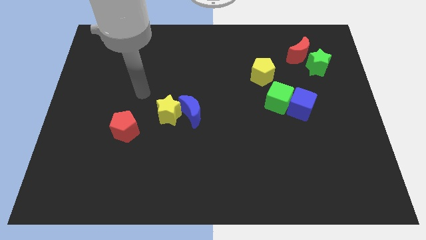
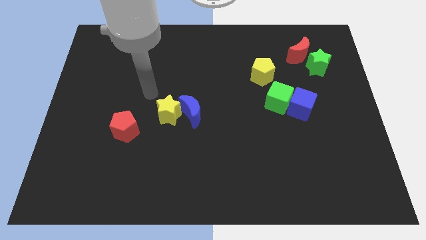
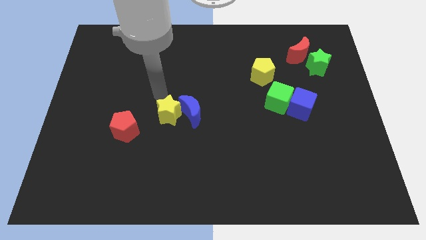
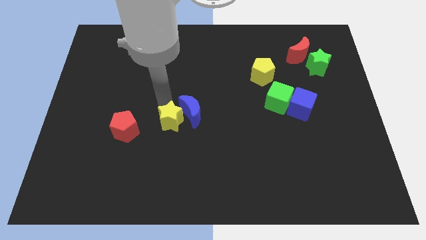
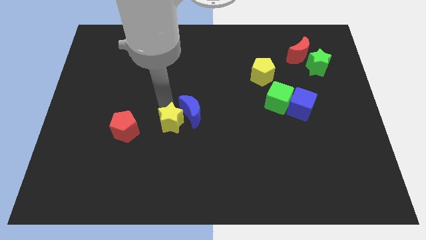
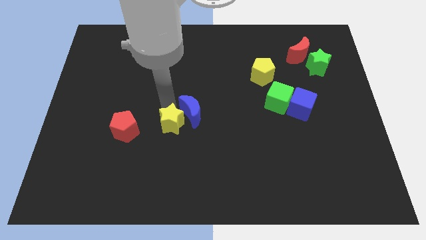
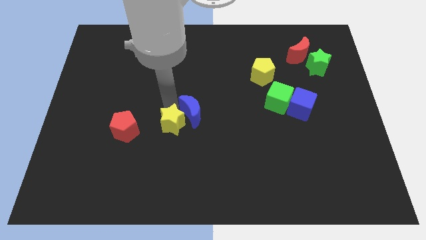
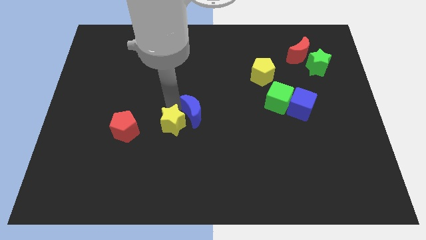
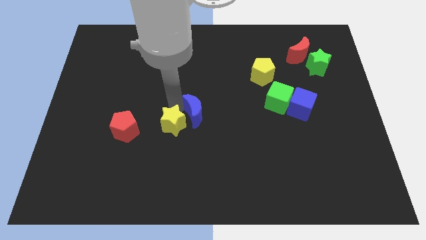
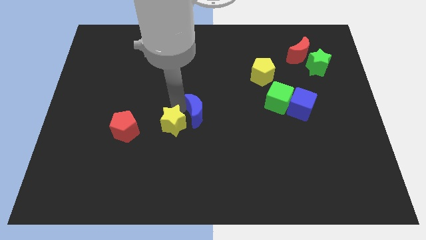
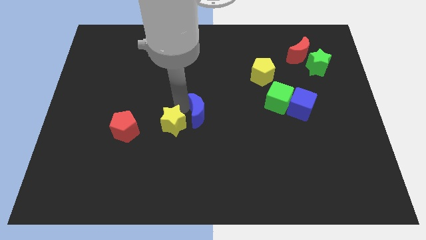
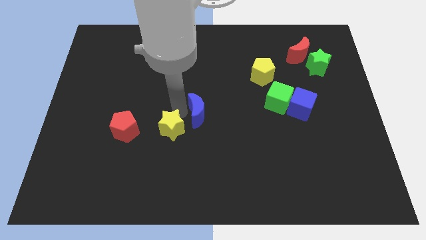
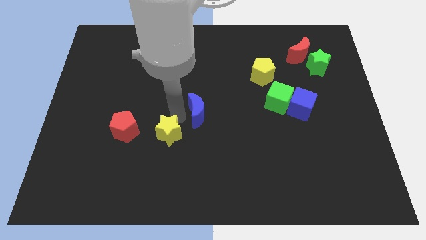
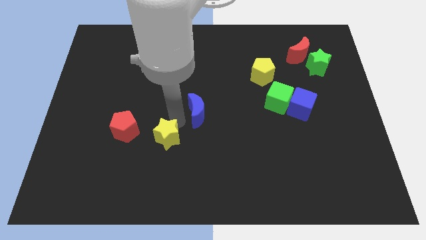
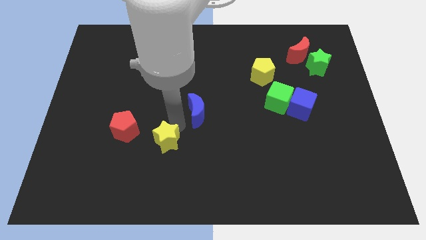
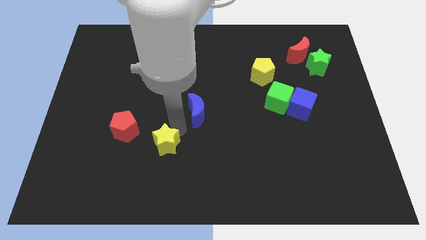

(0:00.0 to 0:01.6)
separate the blue moon from the yellow star

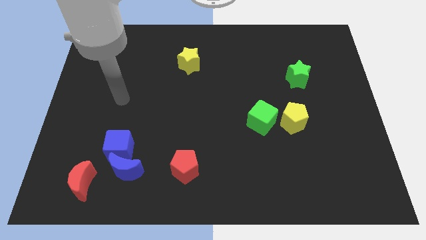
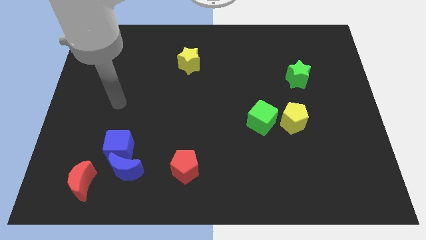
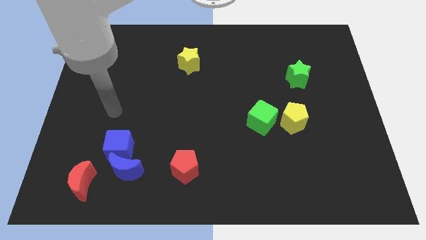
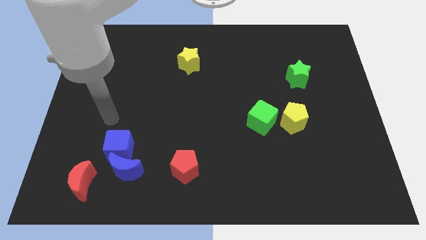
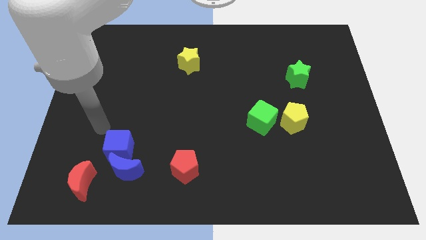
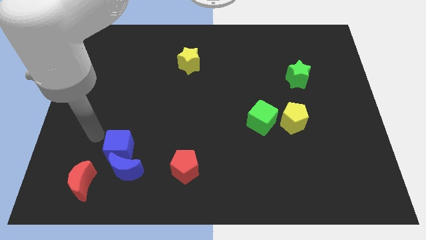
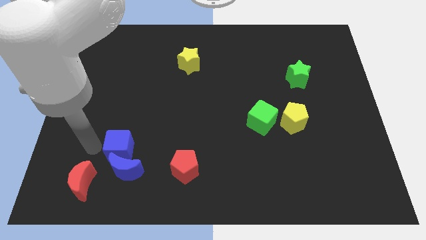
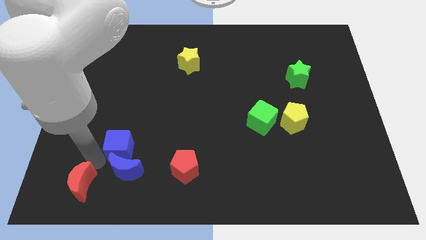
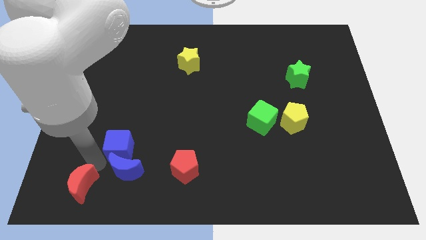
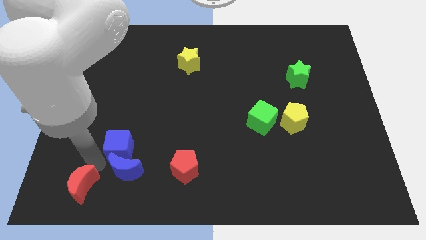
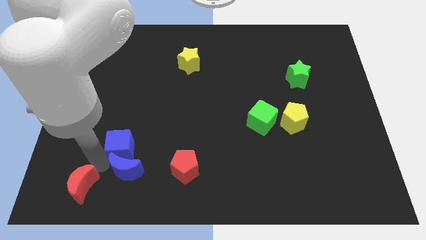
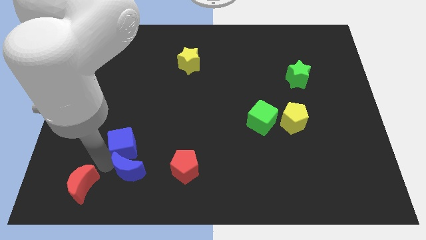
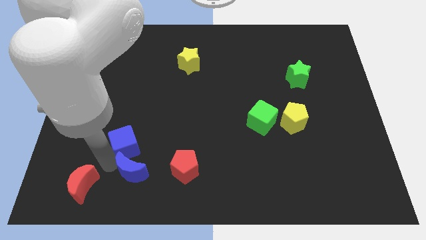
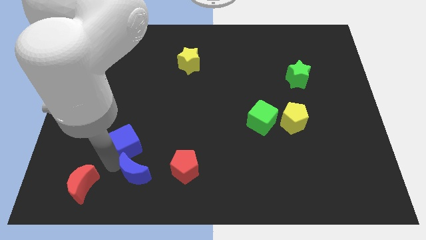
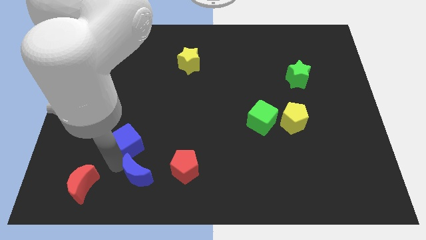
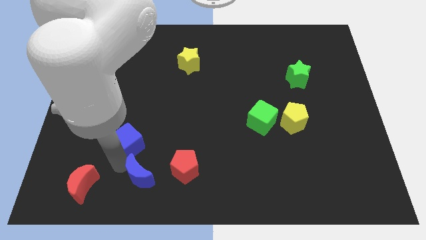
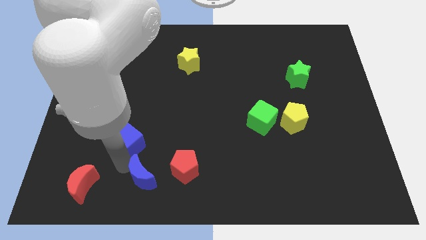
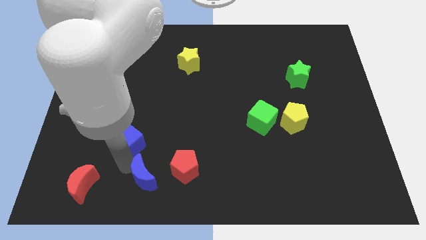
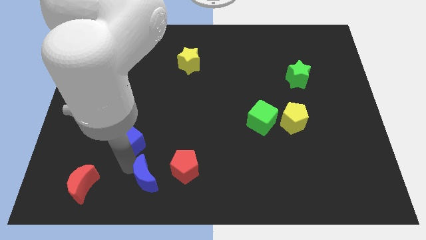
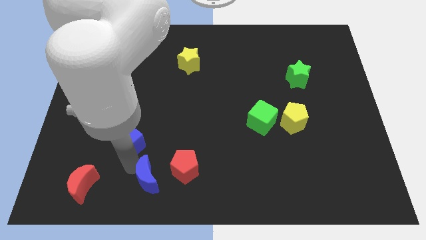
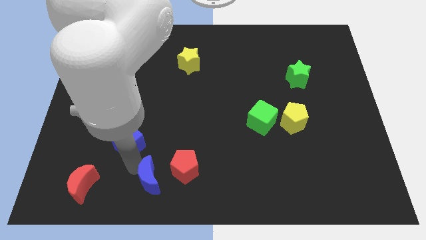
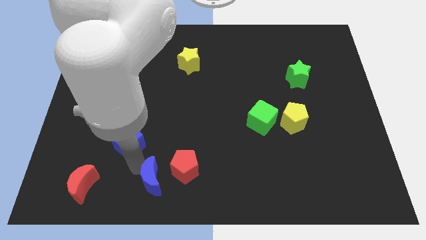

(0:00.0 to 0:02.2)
pull the blue moon apart from the blue cube and red moon

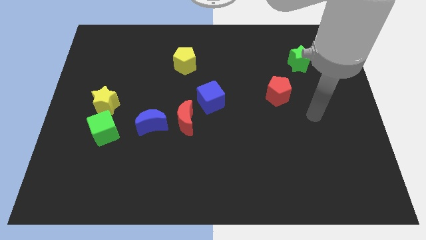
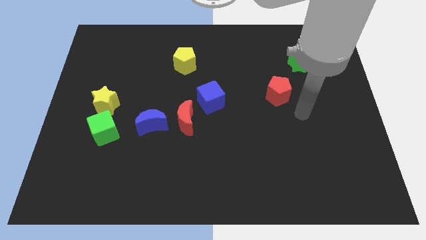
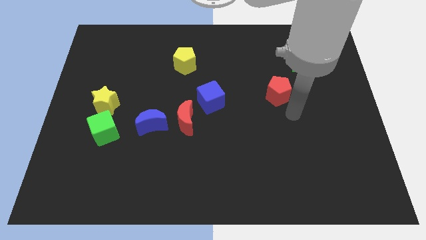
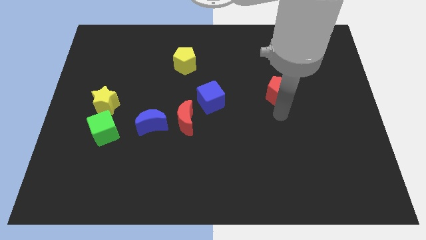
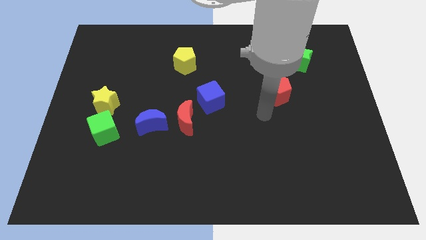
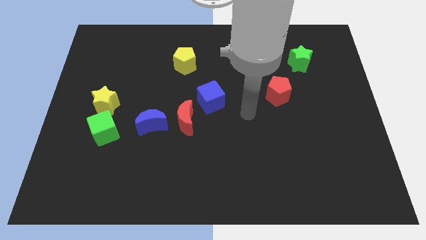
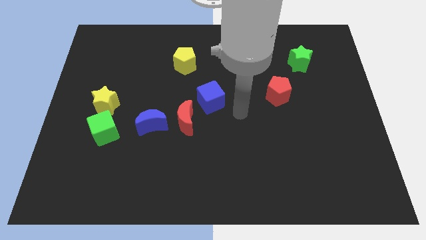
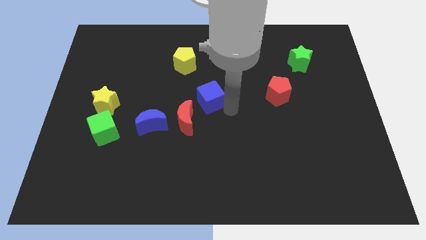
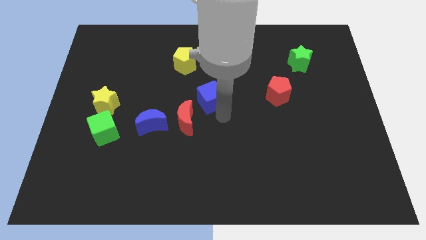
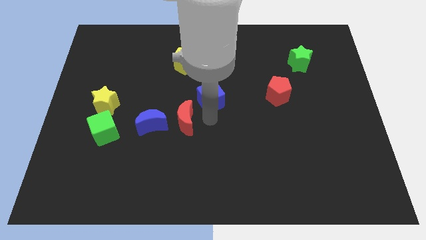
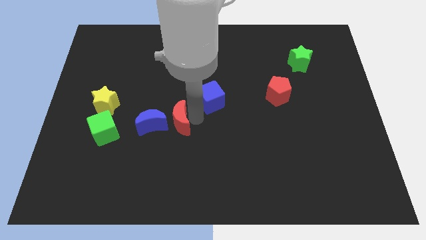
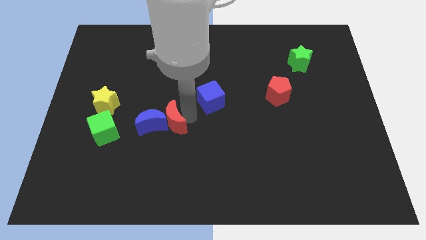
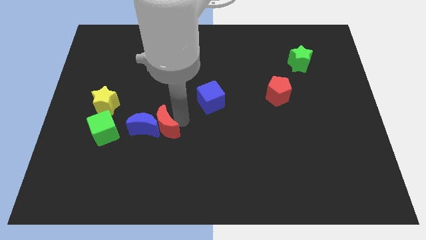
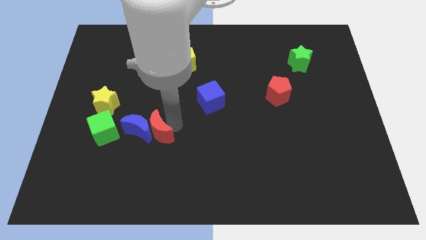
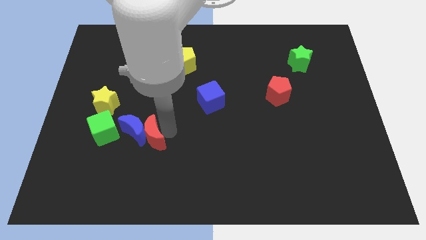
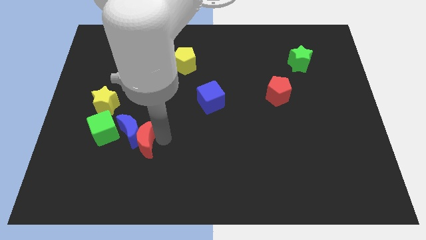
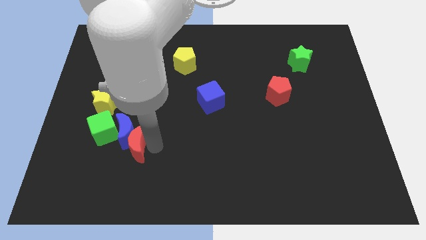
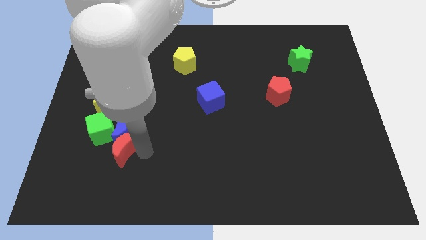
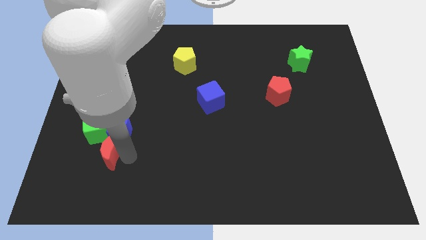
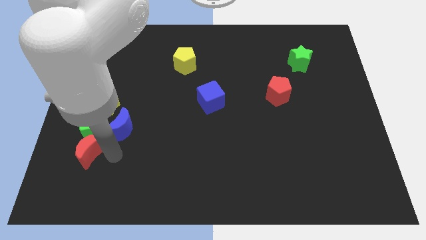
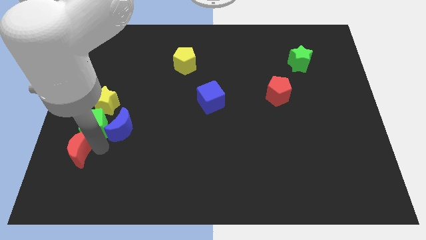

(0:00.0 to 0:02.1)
move the blue moon away from the red moon

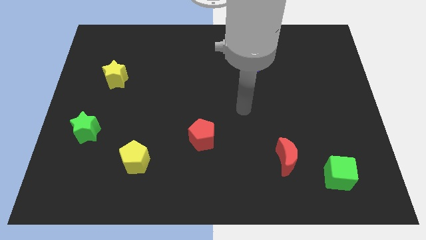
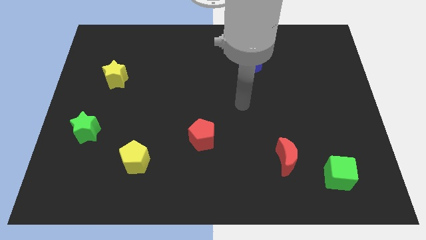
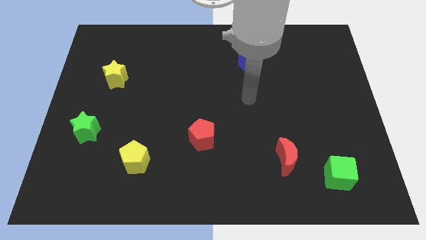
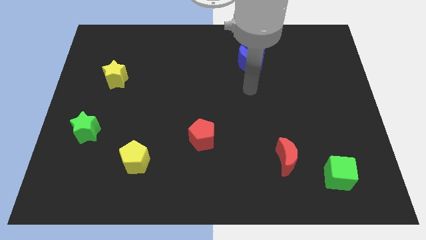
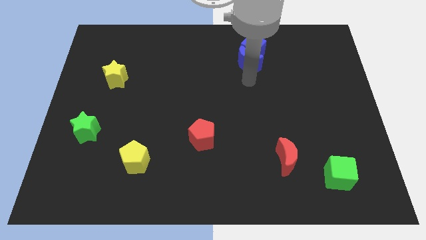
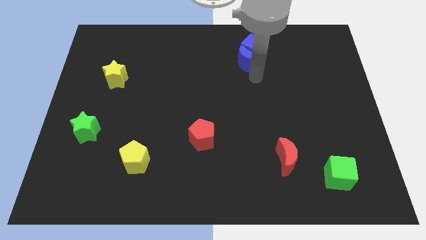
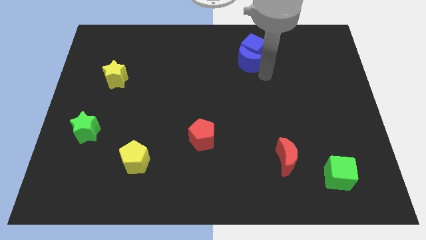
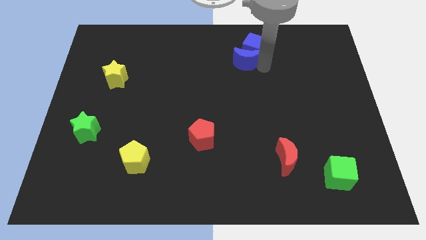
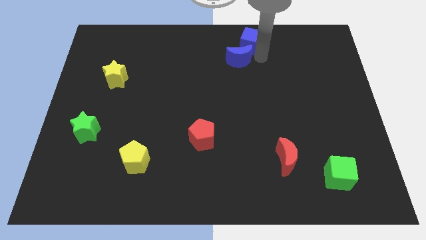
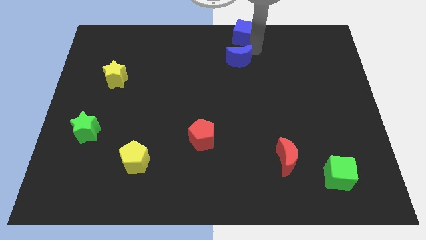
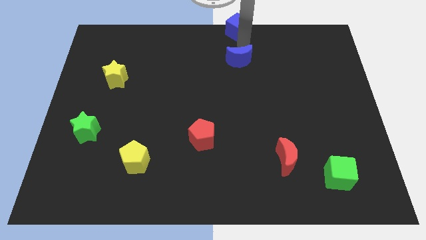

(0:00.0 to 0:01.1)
separate the blue moon from the blue cube

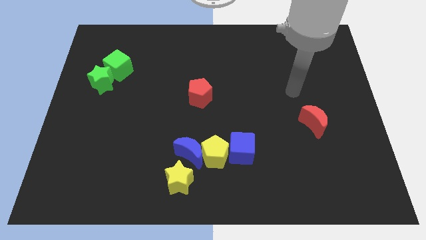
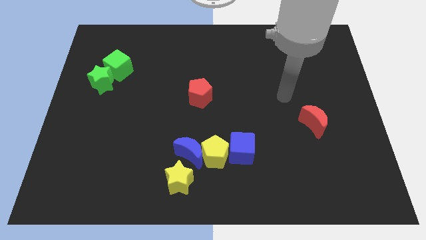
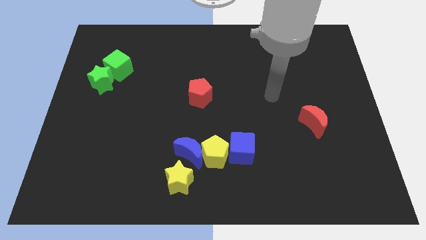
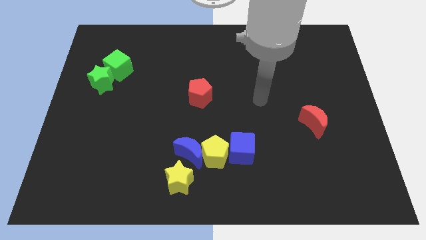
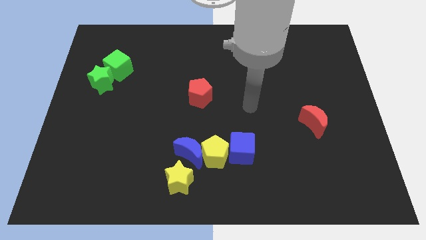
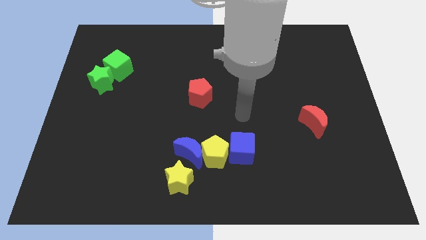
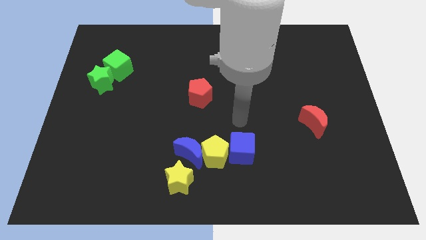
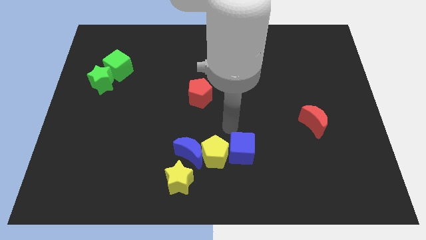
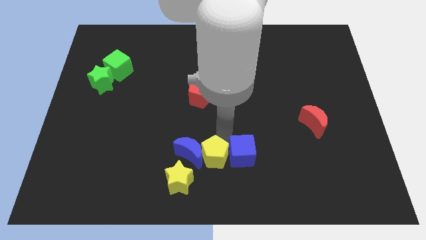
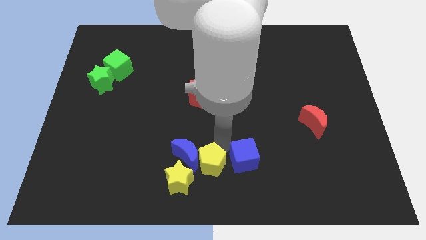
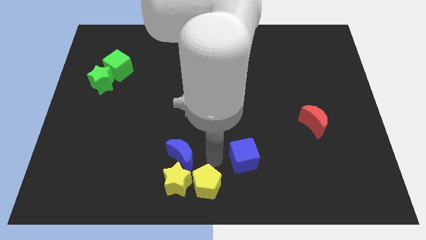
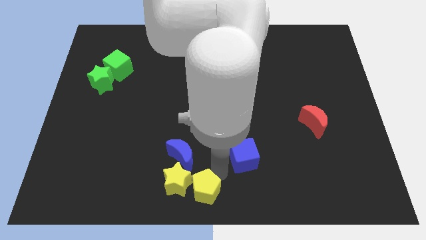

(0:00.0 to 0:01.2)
separate the blue cube from the yellow pentagon

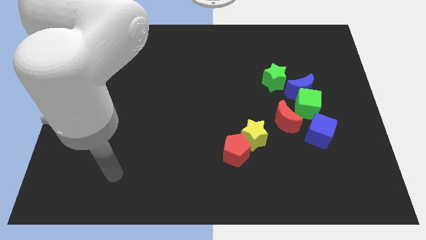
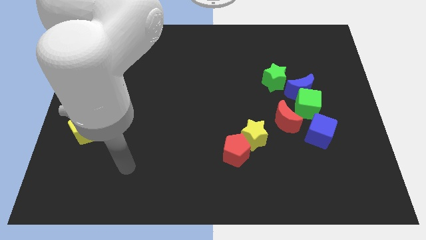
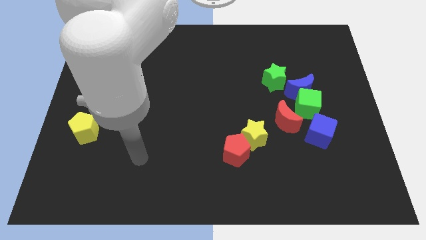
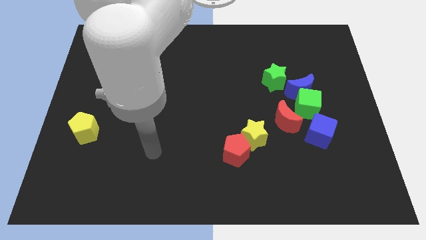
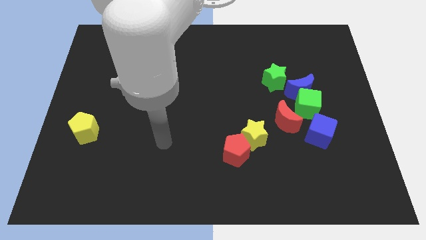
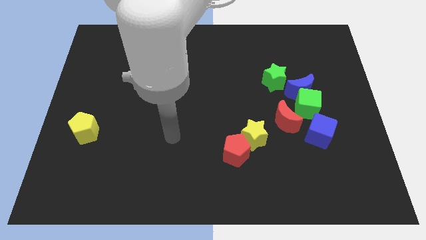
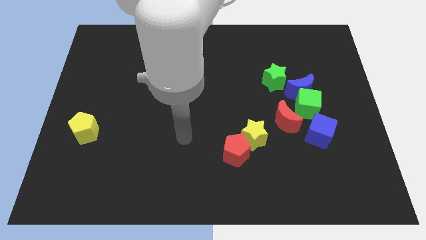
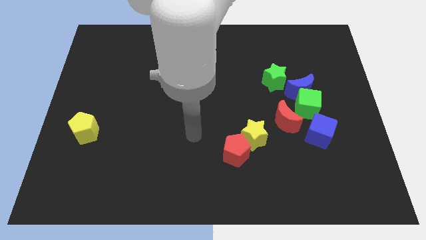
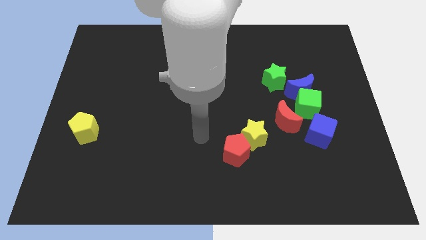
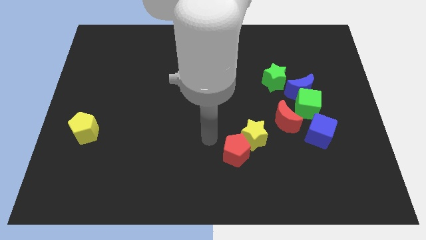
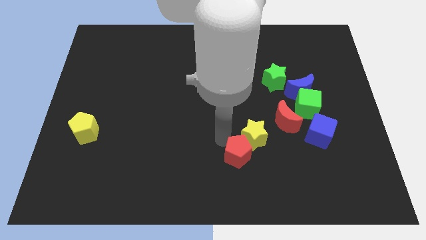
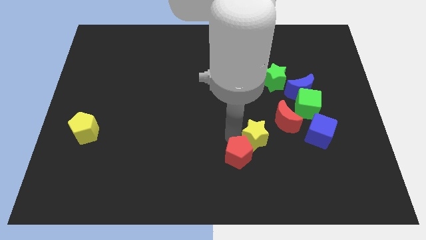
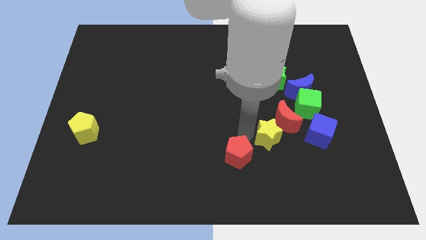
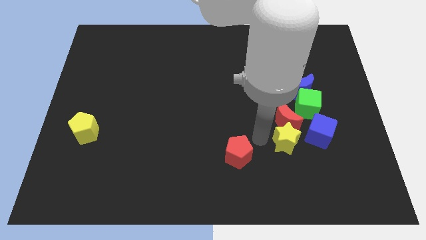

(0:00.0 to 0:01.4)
move the red pentagon away from the yellow star
